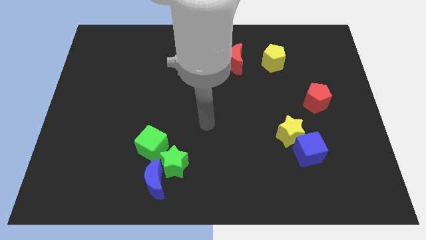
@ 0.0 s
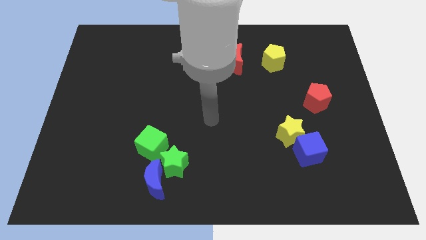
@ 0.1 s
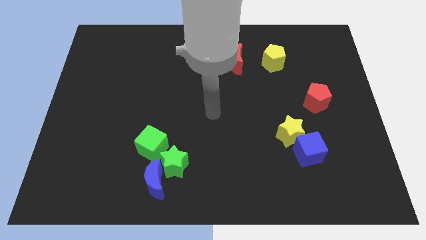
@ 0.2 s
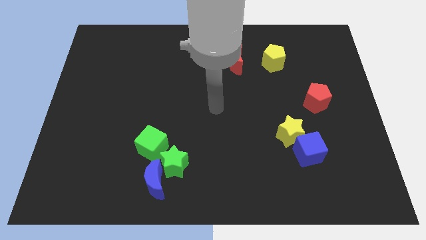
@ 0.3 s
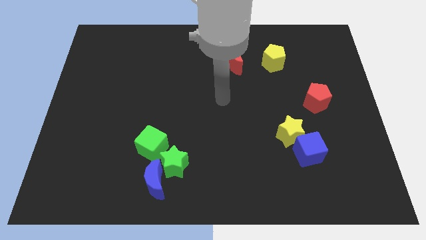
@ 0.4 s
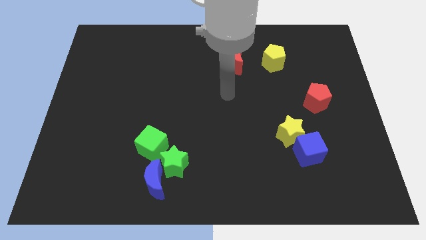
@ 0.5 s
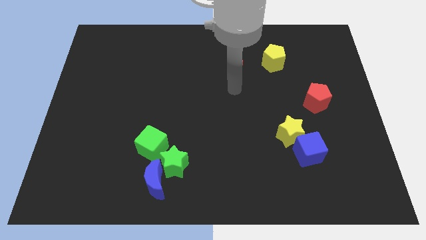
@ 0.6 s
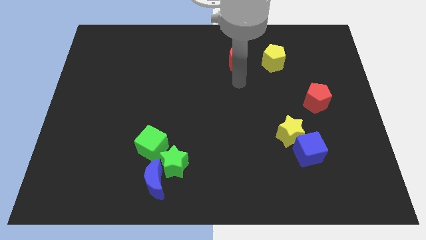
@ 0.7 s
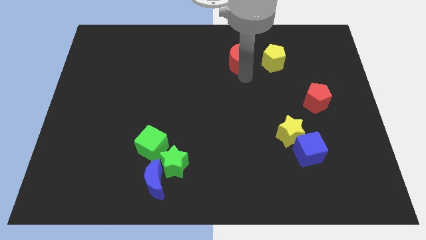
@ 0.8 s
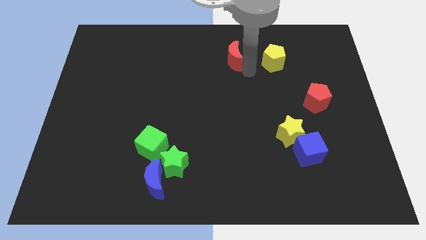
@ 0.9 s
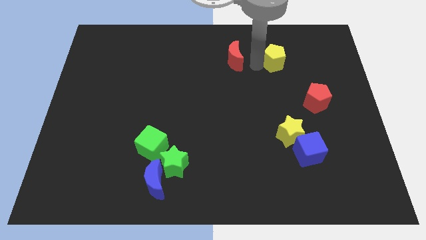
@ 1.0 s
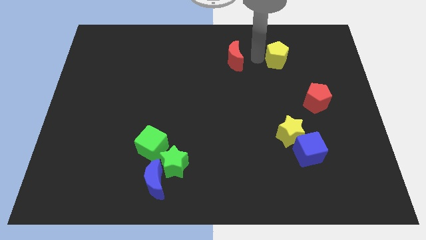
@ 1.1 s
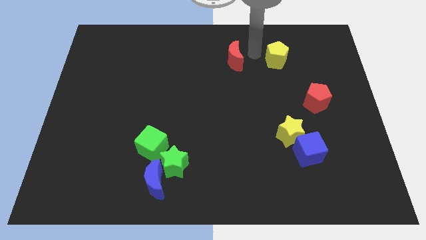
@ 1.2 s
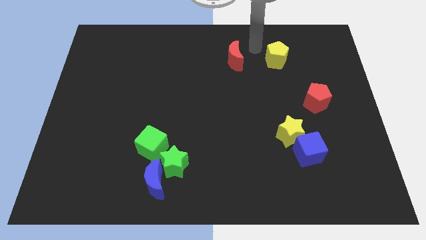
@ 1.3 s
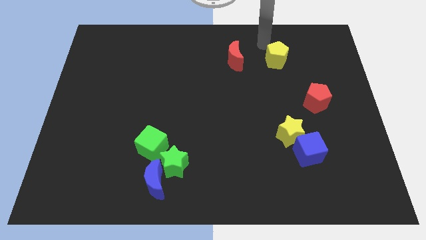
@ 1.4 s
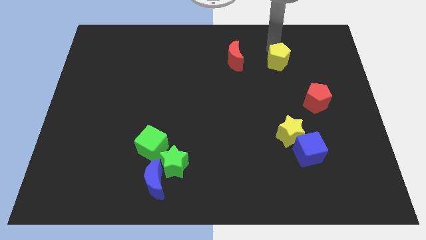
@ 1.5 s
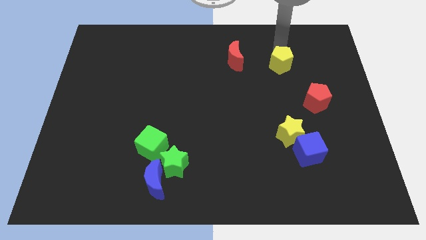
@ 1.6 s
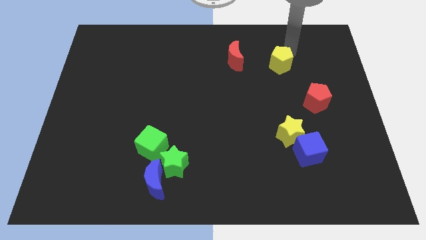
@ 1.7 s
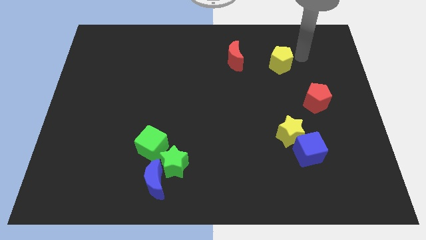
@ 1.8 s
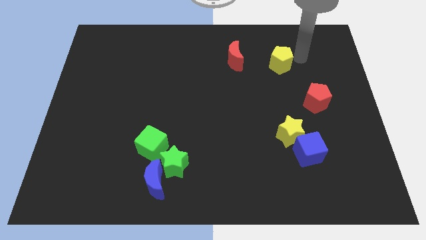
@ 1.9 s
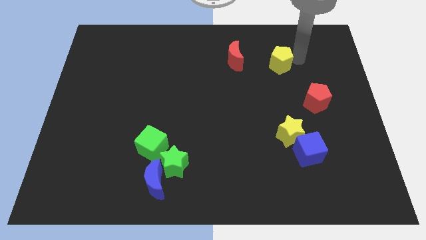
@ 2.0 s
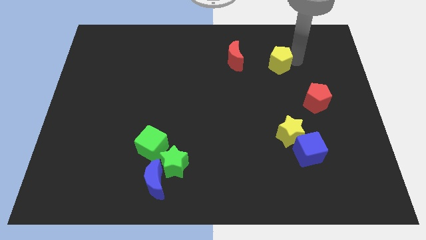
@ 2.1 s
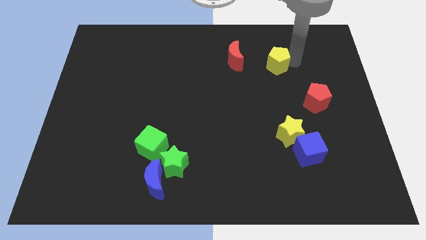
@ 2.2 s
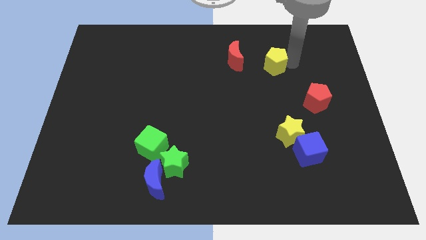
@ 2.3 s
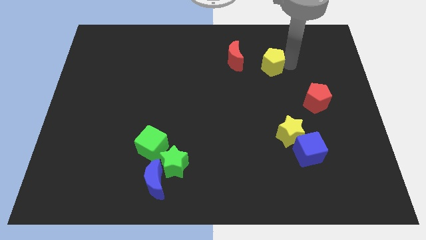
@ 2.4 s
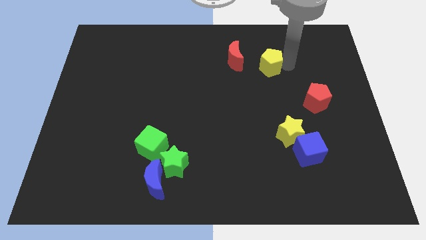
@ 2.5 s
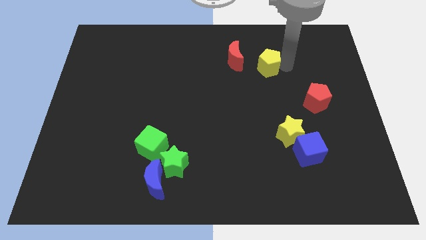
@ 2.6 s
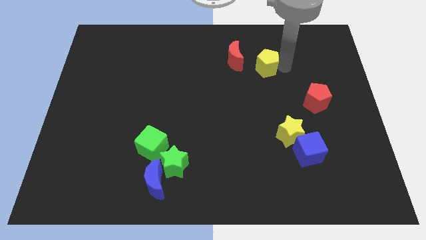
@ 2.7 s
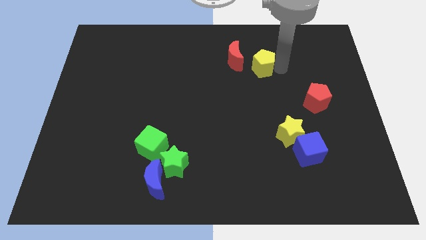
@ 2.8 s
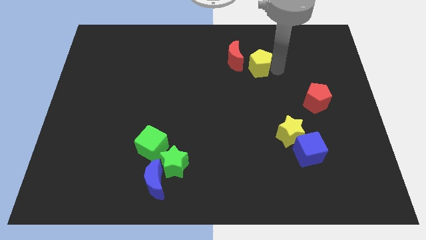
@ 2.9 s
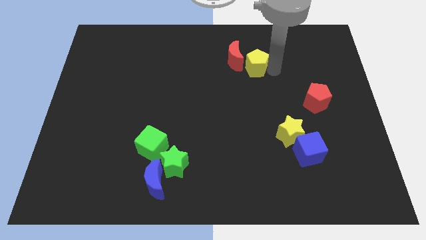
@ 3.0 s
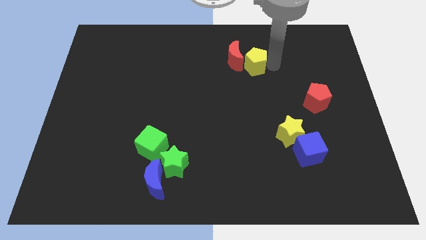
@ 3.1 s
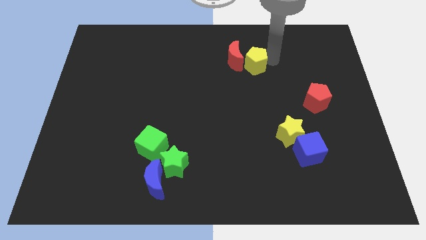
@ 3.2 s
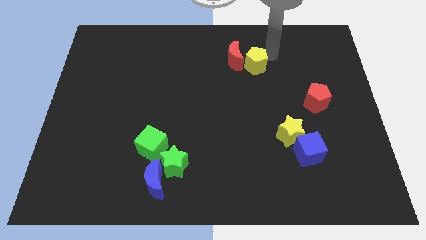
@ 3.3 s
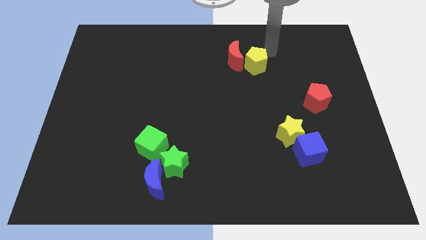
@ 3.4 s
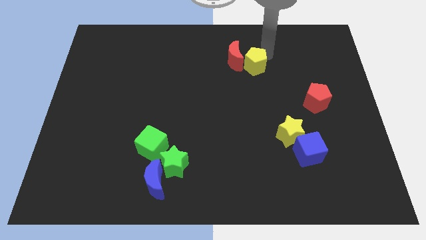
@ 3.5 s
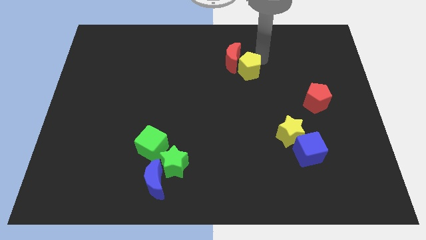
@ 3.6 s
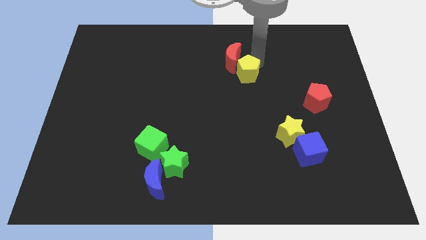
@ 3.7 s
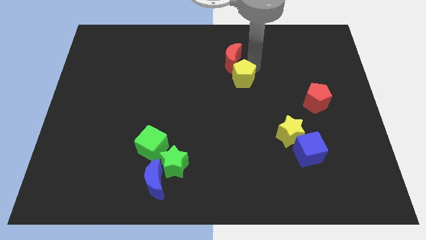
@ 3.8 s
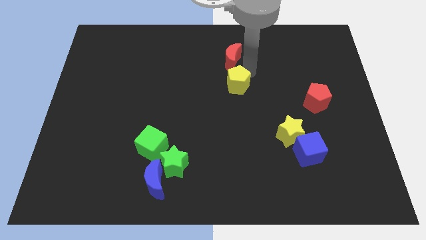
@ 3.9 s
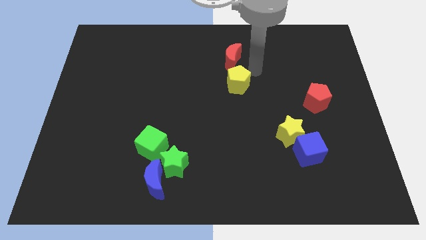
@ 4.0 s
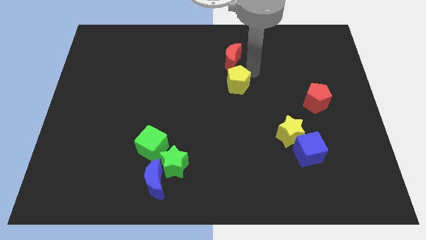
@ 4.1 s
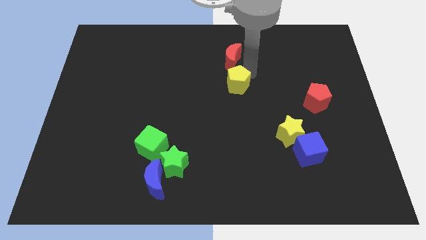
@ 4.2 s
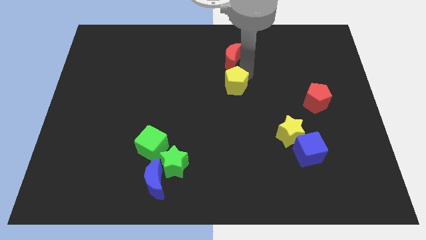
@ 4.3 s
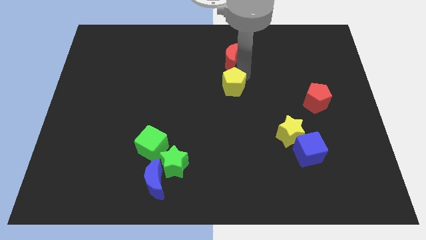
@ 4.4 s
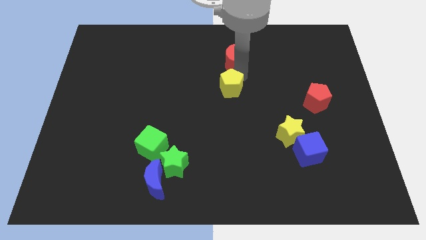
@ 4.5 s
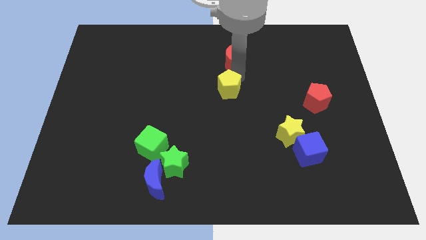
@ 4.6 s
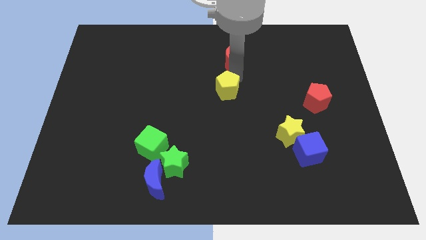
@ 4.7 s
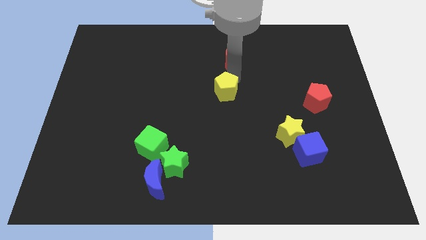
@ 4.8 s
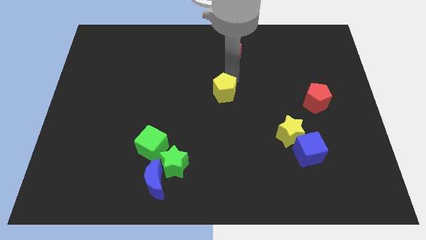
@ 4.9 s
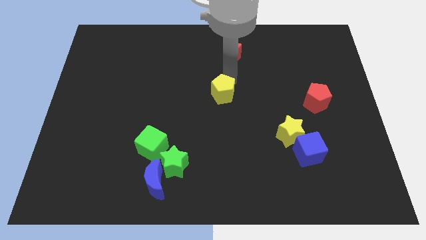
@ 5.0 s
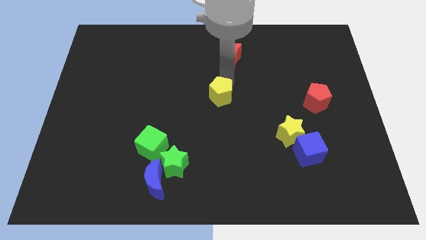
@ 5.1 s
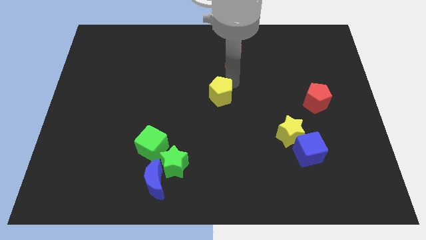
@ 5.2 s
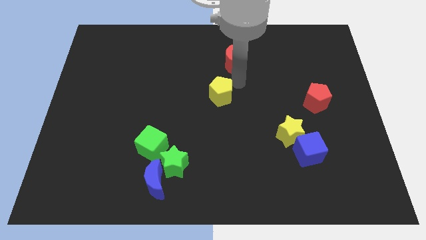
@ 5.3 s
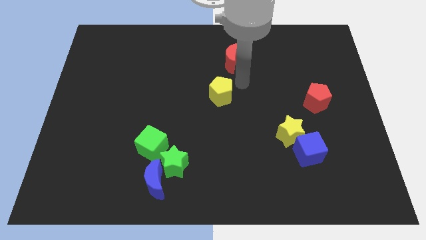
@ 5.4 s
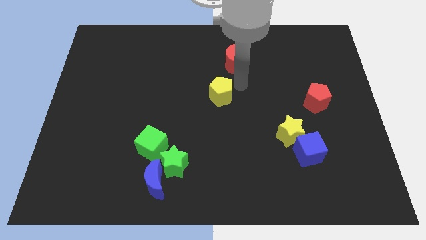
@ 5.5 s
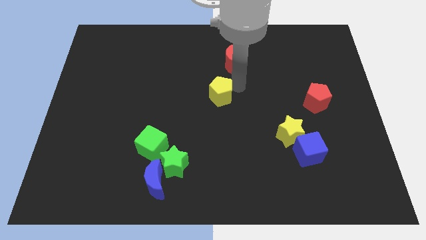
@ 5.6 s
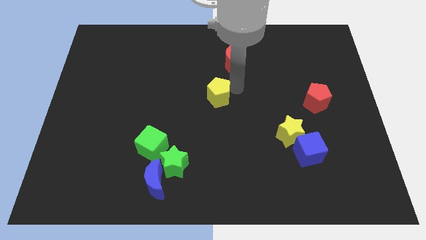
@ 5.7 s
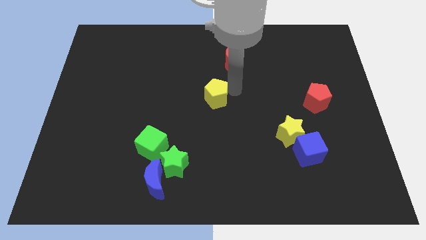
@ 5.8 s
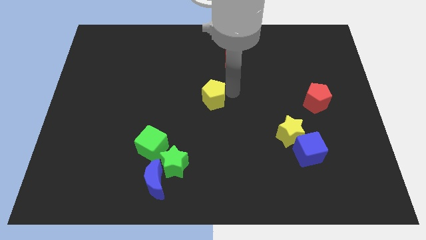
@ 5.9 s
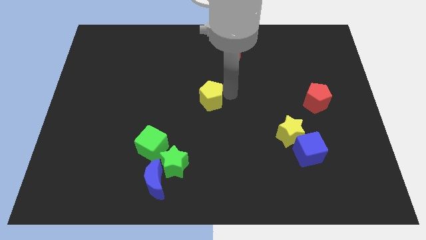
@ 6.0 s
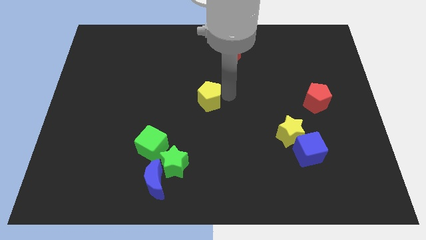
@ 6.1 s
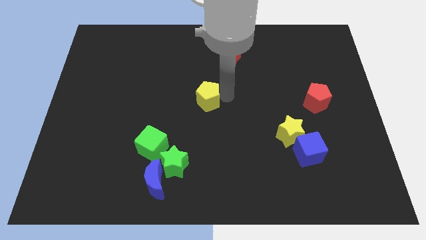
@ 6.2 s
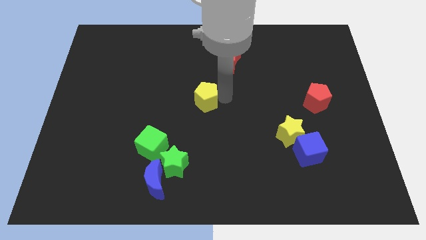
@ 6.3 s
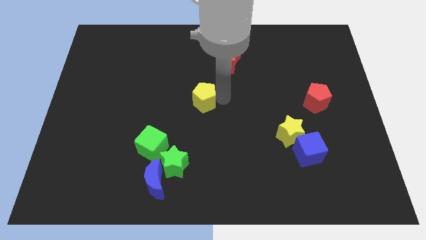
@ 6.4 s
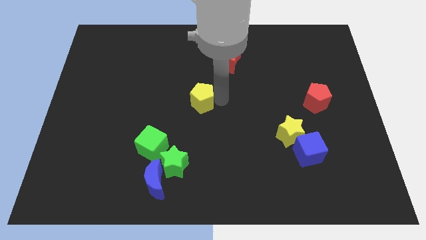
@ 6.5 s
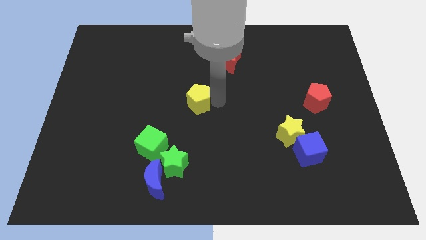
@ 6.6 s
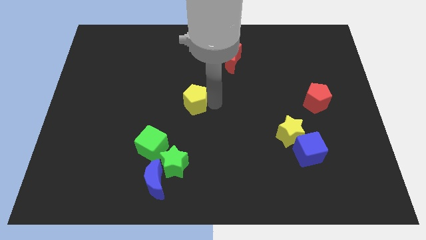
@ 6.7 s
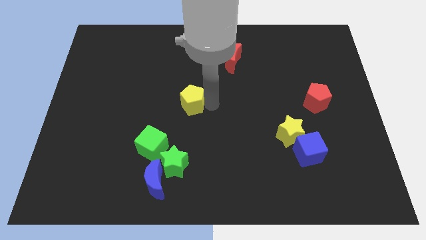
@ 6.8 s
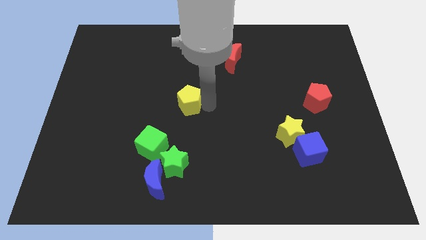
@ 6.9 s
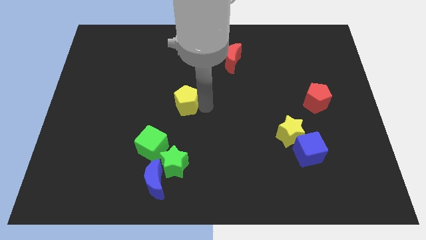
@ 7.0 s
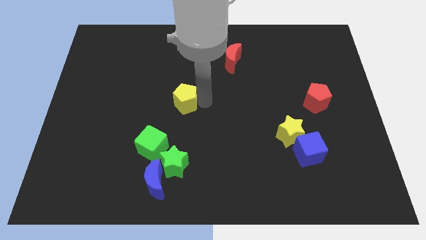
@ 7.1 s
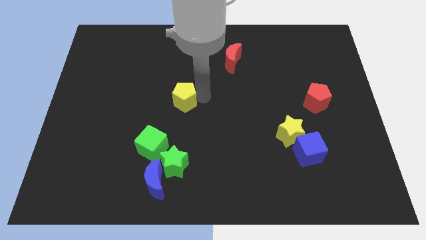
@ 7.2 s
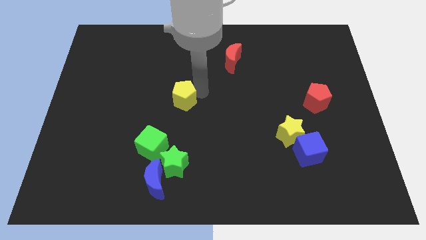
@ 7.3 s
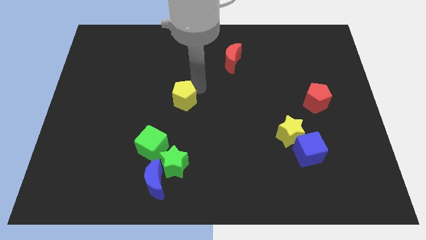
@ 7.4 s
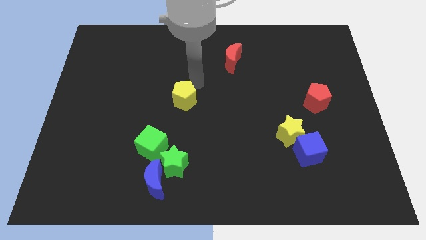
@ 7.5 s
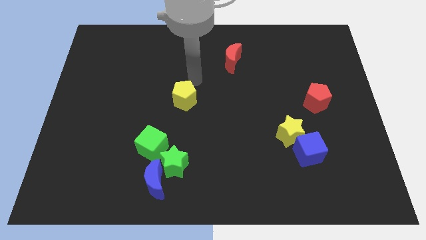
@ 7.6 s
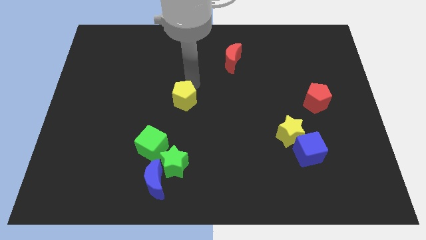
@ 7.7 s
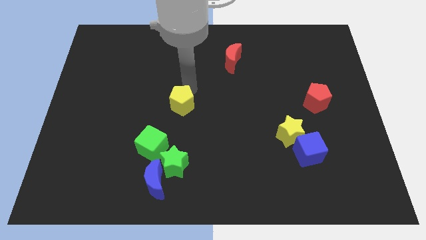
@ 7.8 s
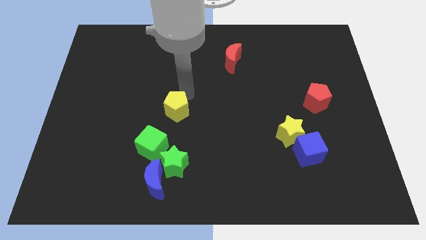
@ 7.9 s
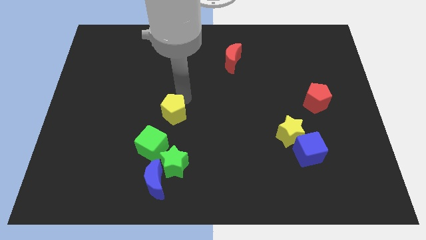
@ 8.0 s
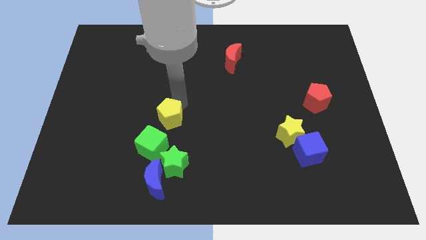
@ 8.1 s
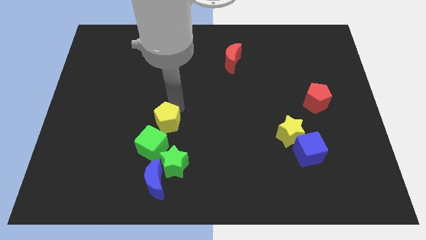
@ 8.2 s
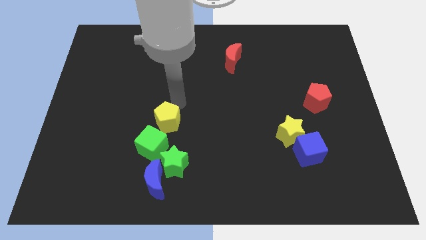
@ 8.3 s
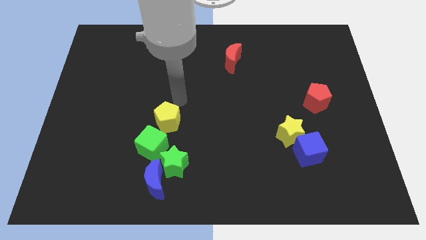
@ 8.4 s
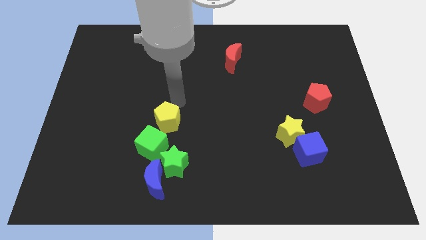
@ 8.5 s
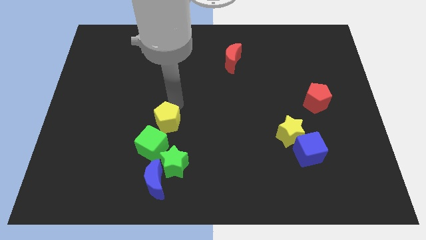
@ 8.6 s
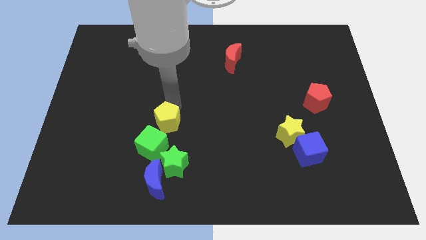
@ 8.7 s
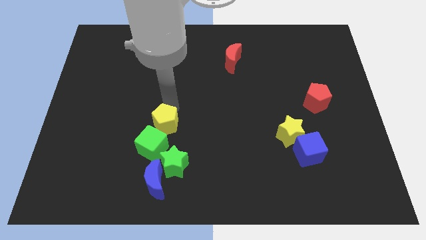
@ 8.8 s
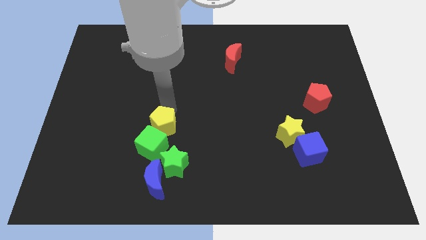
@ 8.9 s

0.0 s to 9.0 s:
push the yellow pentagon to the green cube
